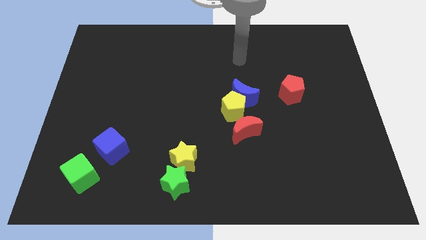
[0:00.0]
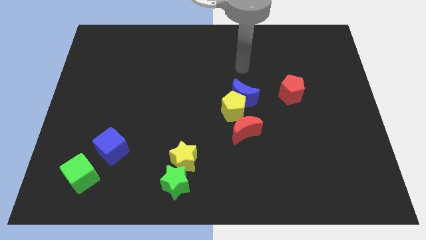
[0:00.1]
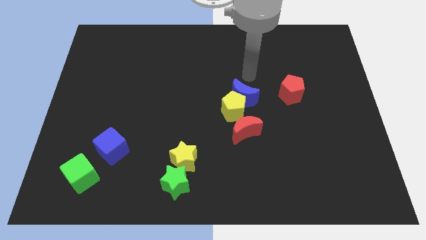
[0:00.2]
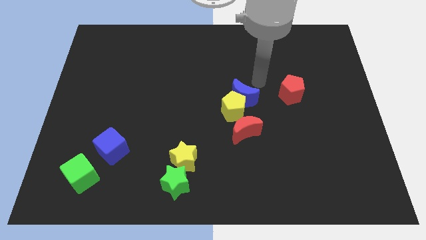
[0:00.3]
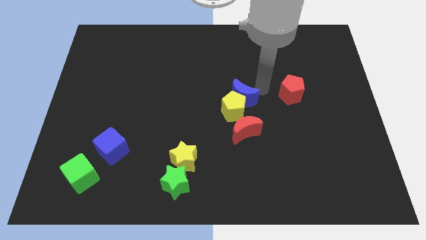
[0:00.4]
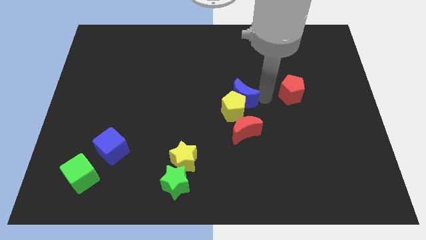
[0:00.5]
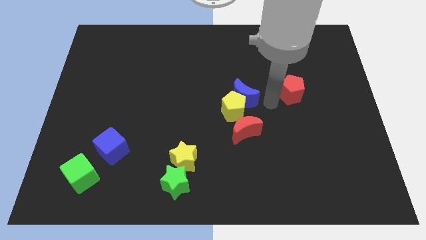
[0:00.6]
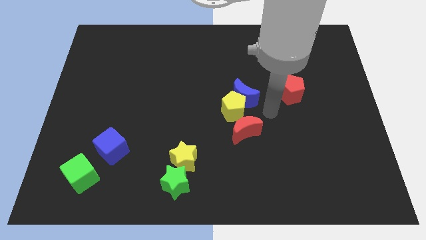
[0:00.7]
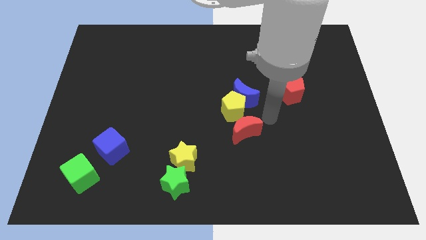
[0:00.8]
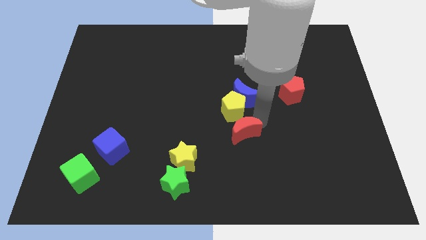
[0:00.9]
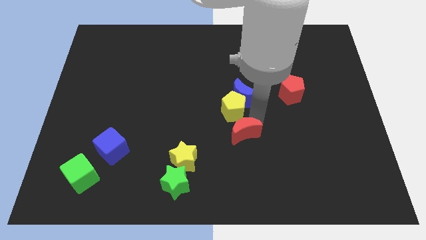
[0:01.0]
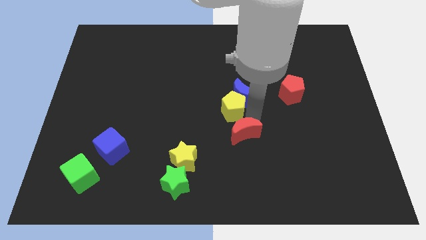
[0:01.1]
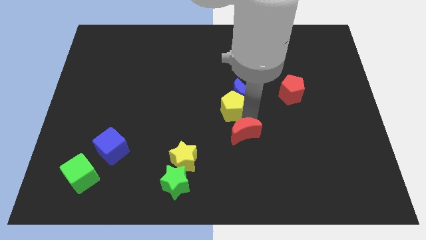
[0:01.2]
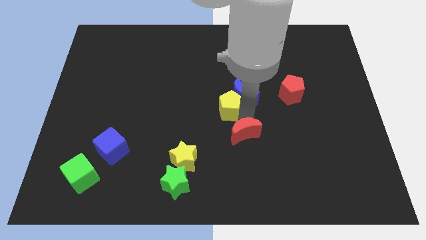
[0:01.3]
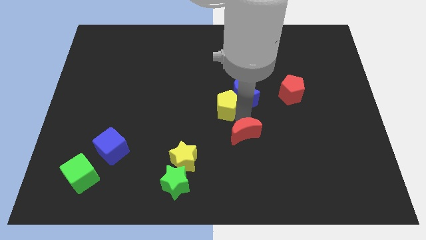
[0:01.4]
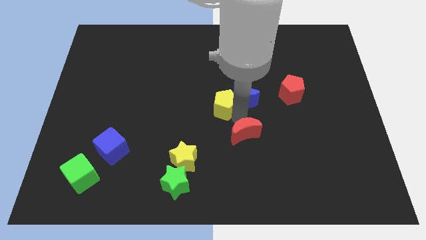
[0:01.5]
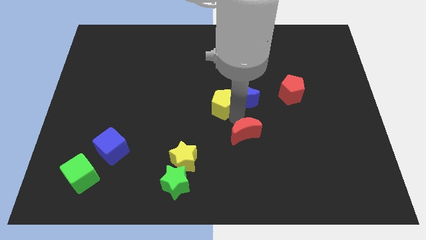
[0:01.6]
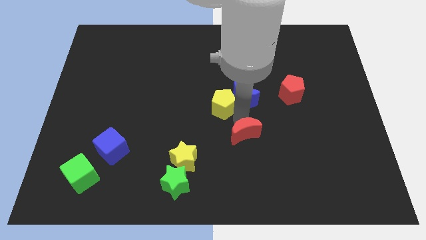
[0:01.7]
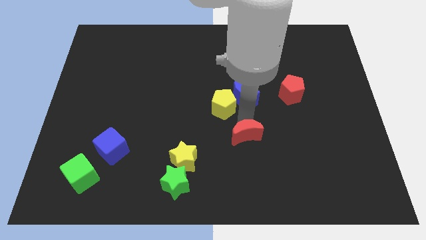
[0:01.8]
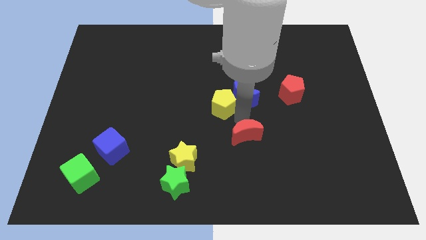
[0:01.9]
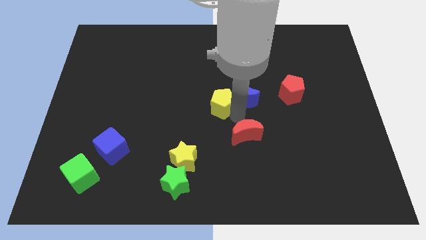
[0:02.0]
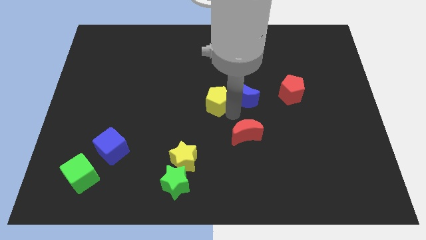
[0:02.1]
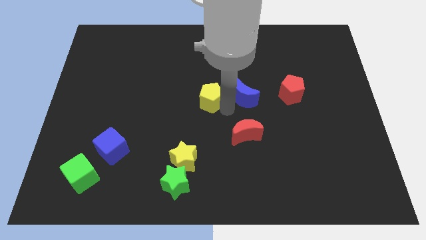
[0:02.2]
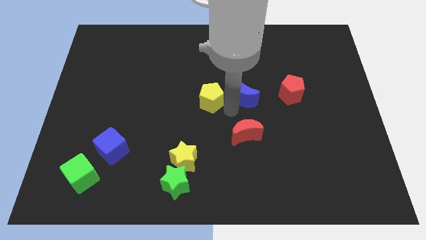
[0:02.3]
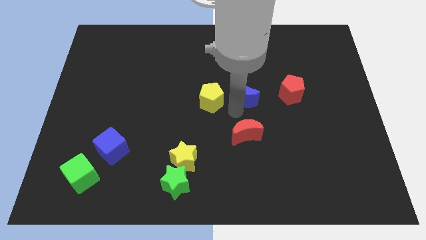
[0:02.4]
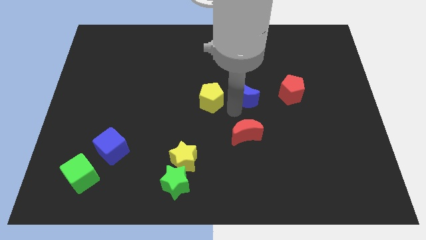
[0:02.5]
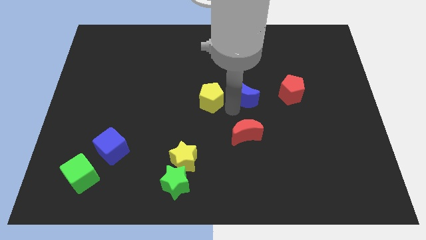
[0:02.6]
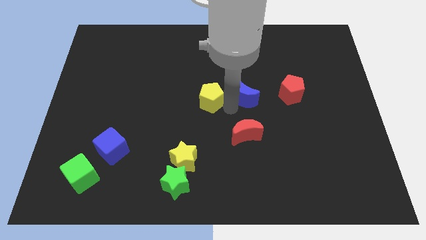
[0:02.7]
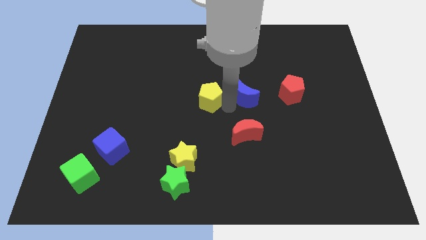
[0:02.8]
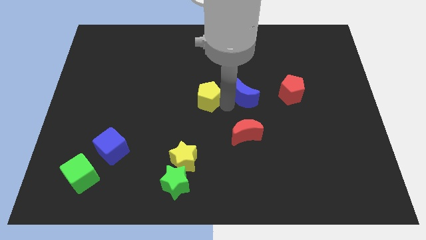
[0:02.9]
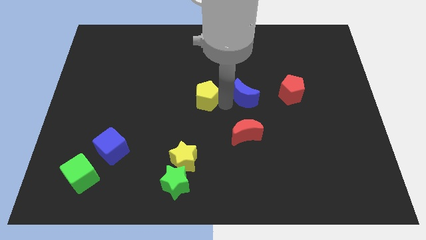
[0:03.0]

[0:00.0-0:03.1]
pull the yellow pentagon apart from the blue moon and red moon

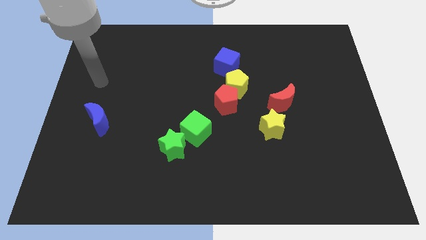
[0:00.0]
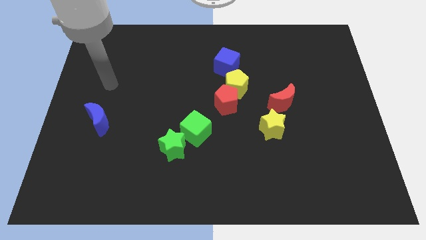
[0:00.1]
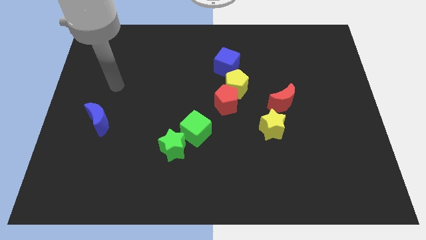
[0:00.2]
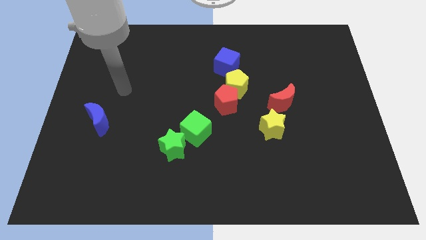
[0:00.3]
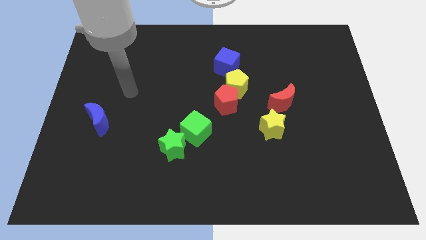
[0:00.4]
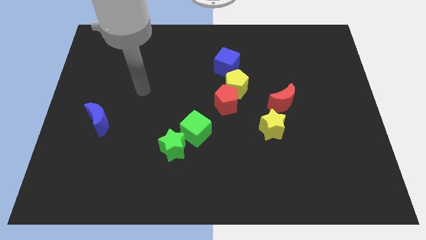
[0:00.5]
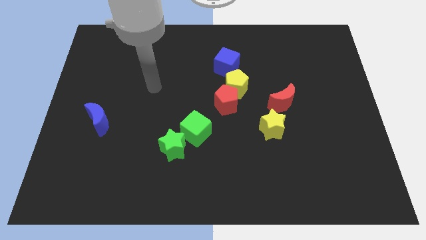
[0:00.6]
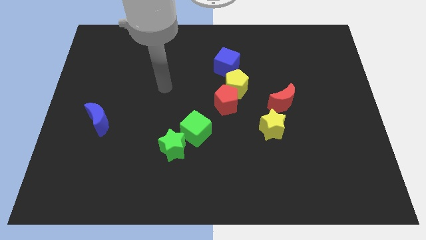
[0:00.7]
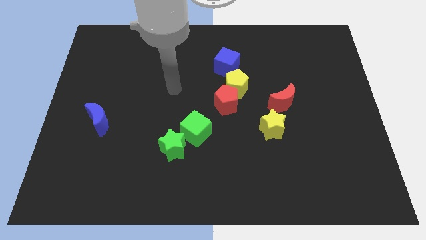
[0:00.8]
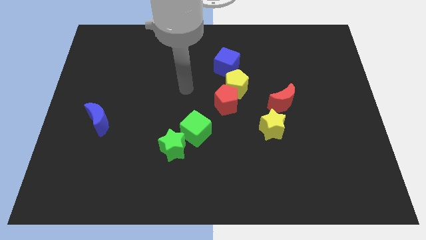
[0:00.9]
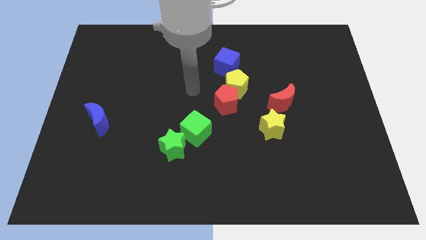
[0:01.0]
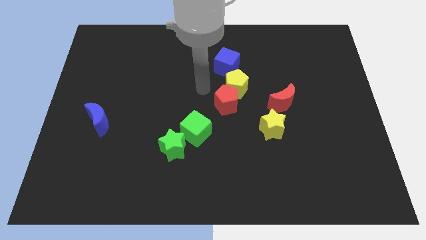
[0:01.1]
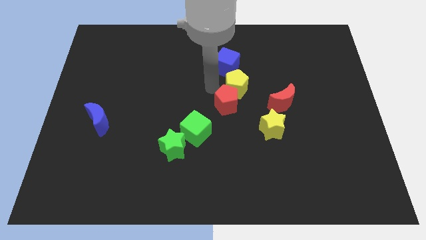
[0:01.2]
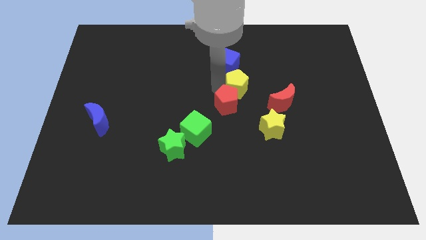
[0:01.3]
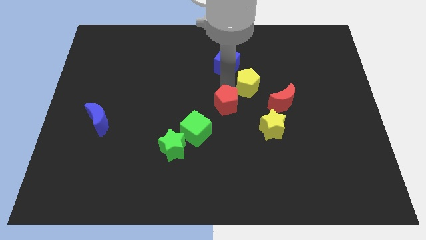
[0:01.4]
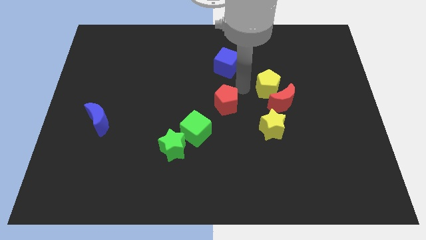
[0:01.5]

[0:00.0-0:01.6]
separate the red pentagon from the yellow pentagon

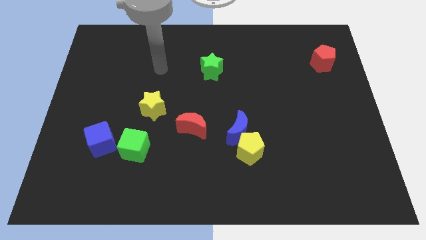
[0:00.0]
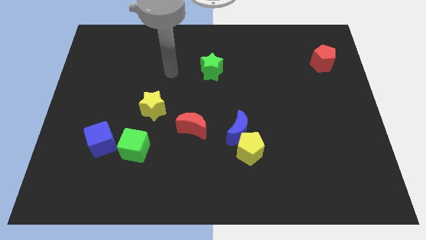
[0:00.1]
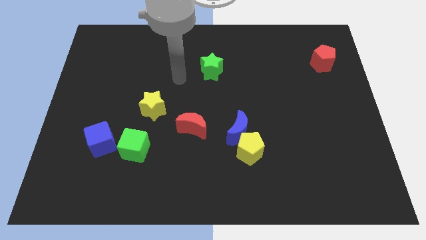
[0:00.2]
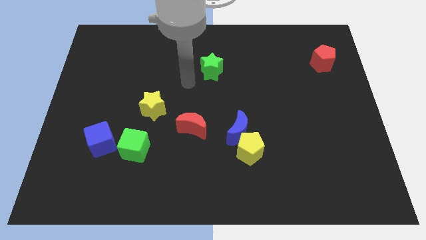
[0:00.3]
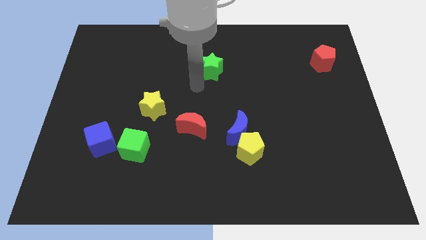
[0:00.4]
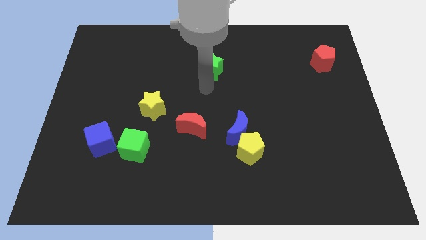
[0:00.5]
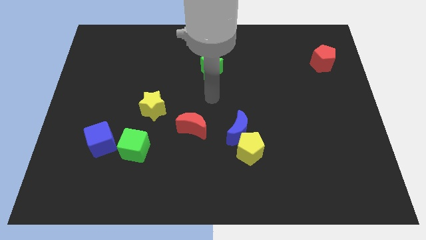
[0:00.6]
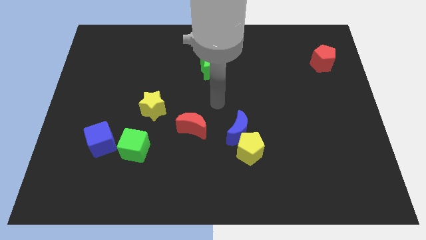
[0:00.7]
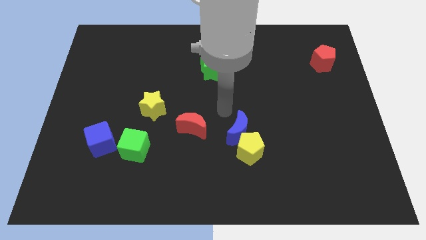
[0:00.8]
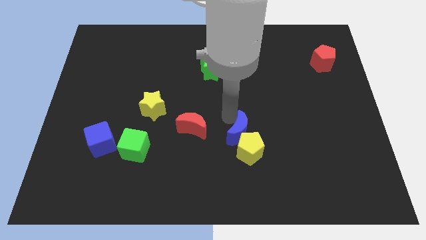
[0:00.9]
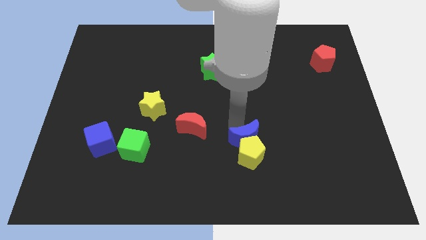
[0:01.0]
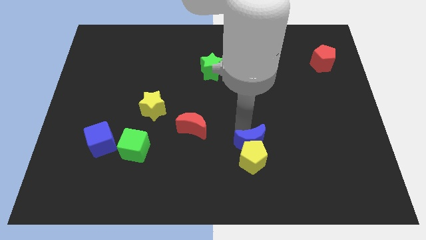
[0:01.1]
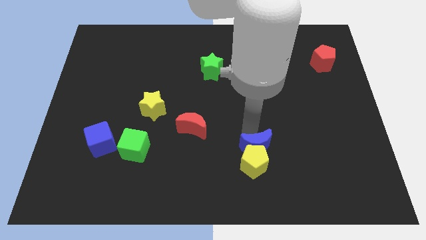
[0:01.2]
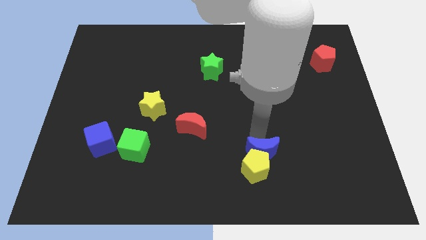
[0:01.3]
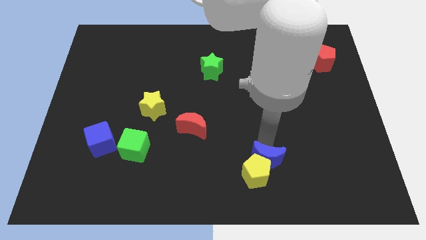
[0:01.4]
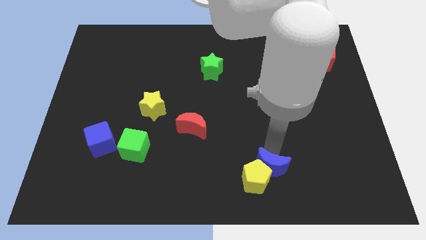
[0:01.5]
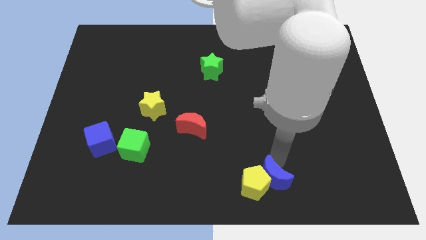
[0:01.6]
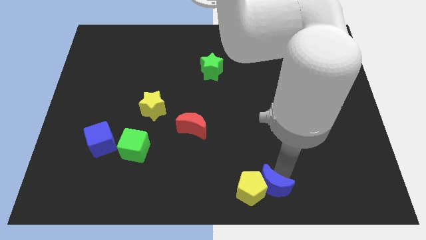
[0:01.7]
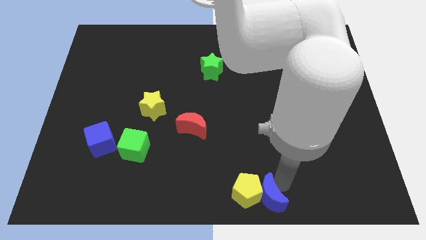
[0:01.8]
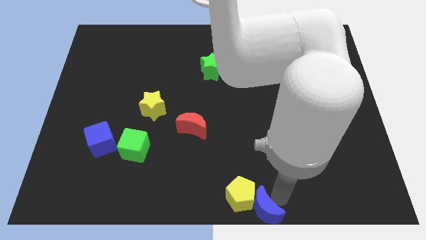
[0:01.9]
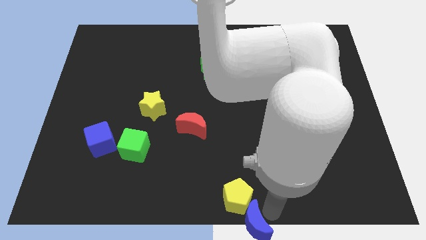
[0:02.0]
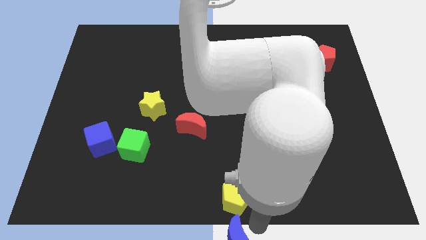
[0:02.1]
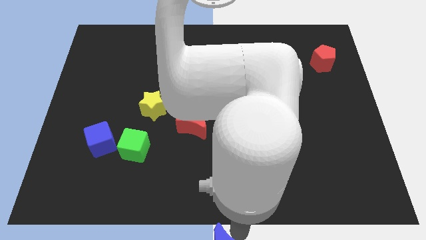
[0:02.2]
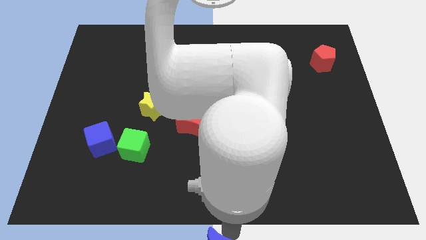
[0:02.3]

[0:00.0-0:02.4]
move the yellow pentagon away from the blue moon

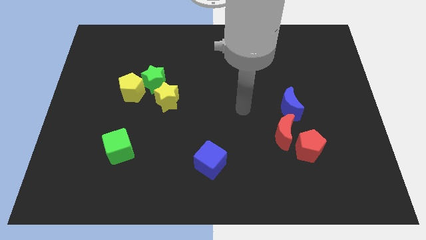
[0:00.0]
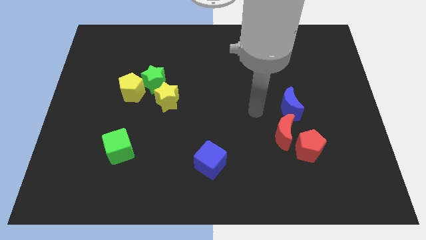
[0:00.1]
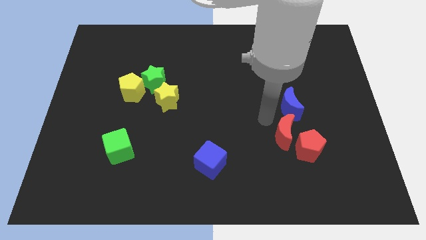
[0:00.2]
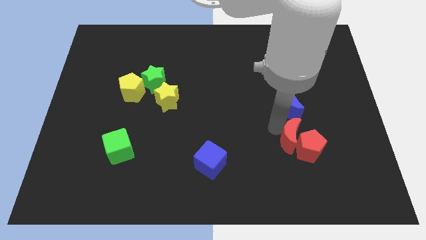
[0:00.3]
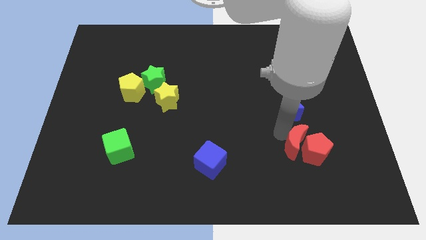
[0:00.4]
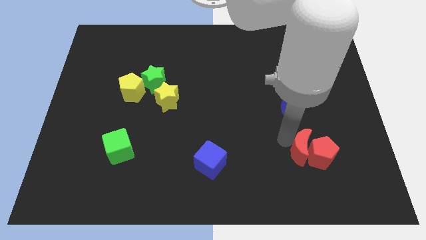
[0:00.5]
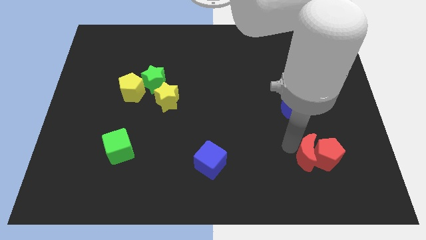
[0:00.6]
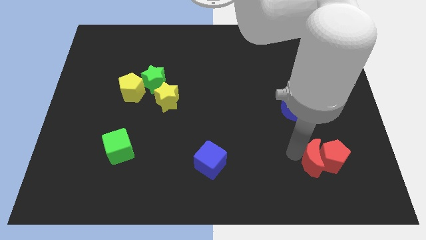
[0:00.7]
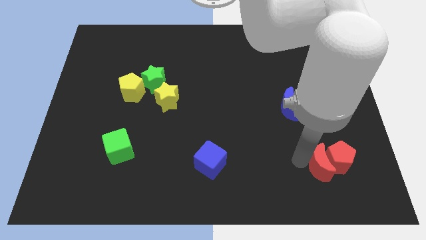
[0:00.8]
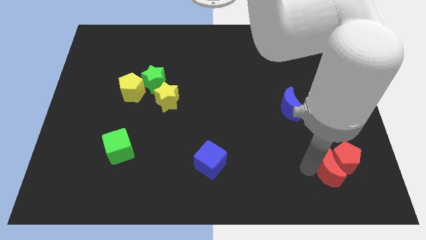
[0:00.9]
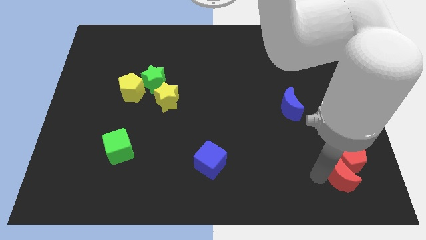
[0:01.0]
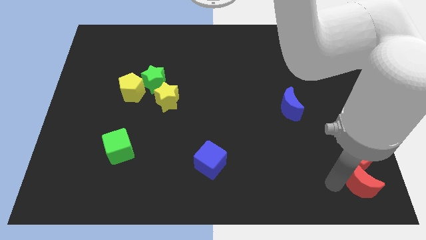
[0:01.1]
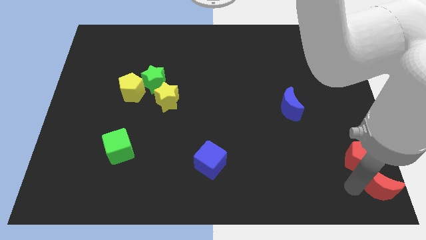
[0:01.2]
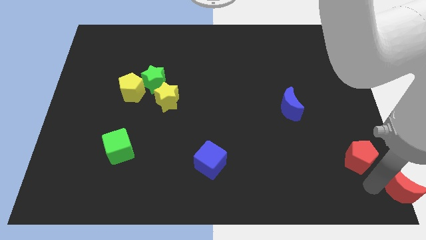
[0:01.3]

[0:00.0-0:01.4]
move the red pentagon away from the red moon

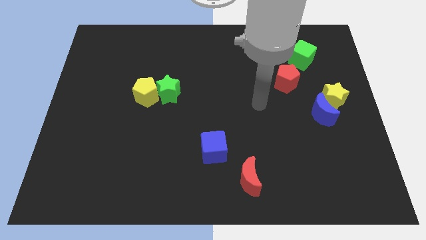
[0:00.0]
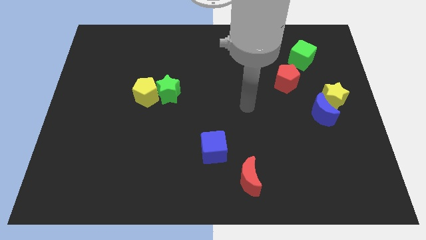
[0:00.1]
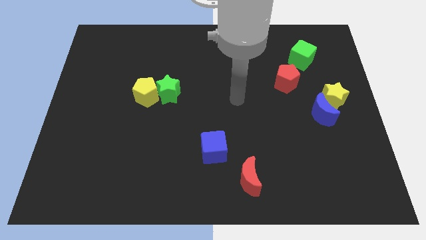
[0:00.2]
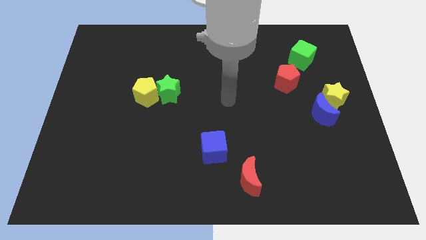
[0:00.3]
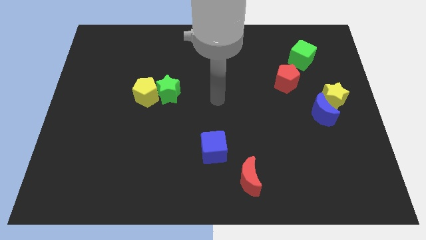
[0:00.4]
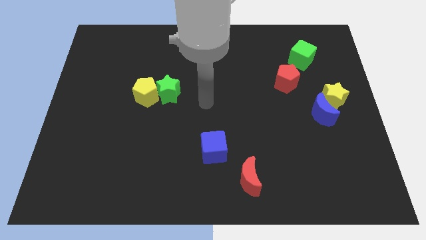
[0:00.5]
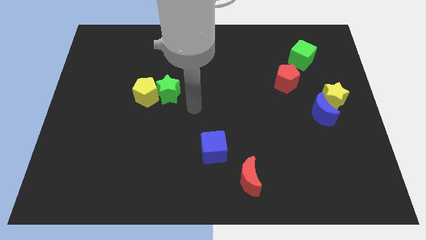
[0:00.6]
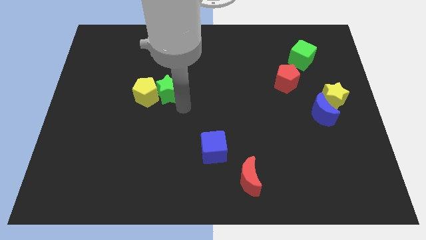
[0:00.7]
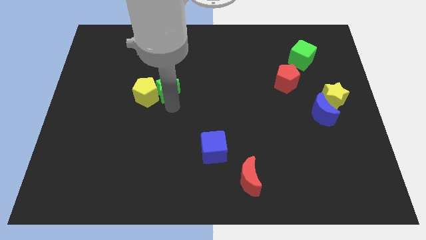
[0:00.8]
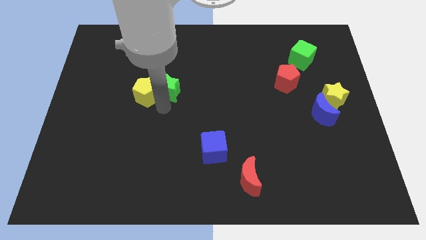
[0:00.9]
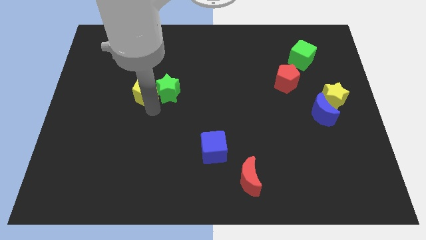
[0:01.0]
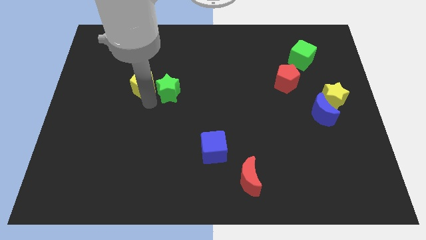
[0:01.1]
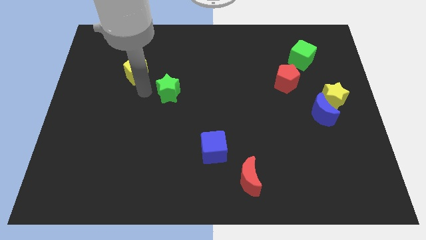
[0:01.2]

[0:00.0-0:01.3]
pull the green star apart from the yellow pentagon
